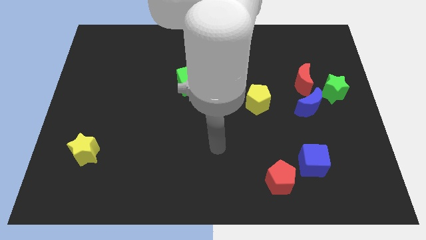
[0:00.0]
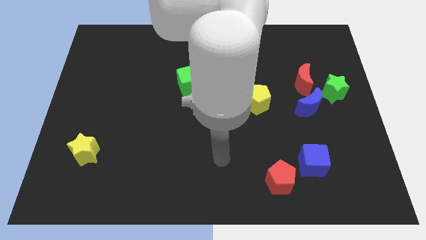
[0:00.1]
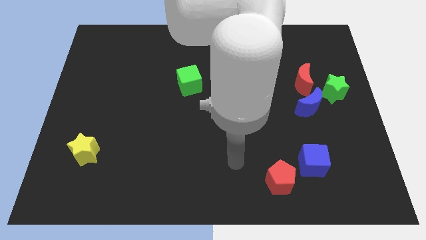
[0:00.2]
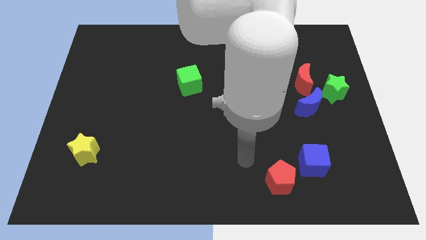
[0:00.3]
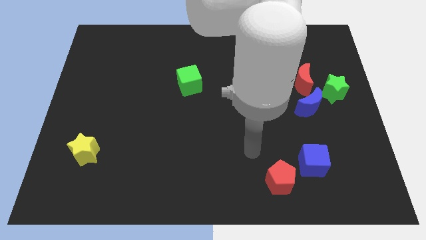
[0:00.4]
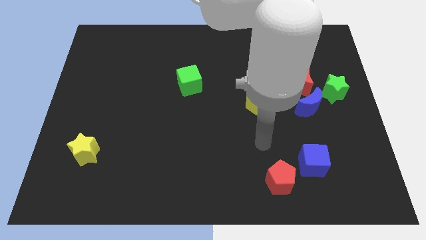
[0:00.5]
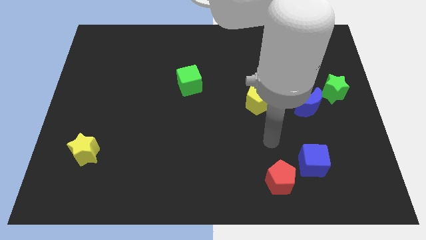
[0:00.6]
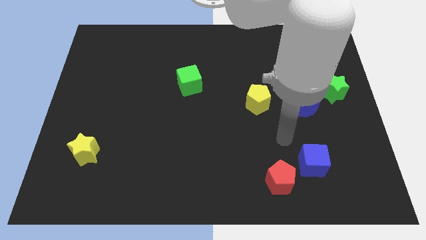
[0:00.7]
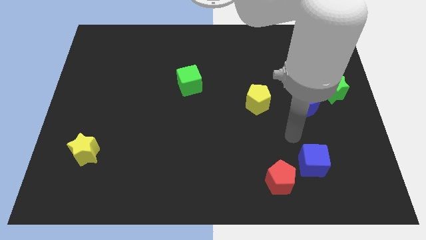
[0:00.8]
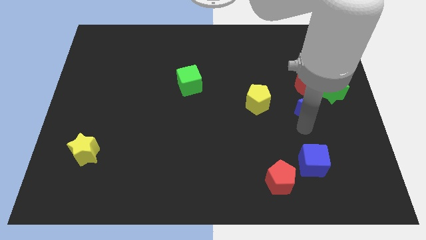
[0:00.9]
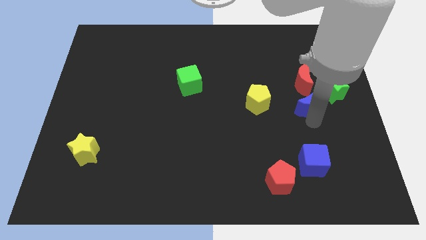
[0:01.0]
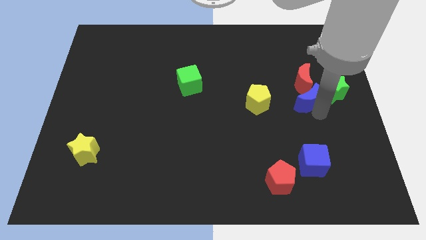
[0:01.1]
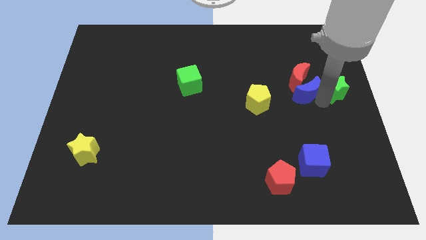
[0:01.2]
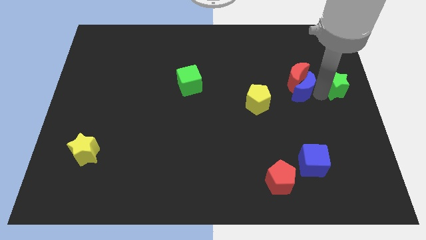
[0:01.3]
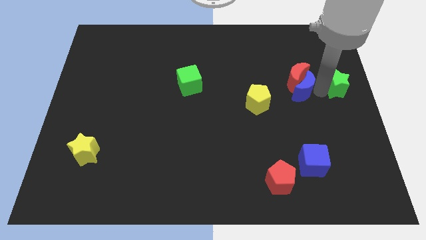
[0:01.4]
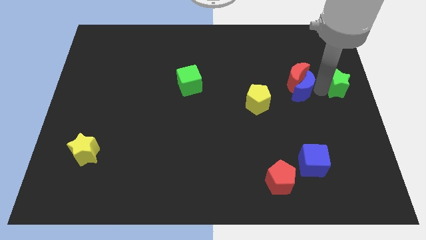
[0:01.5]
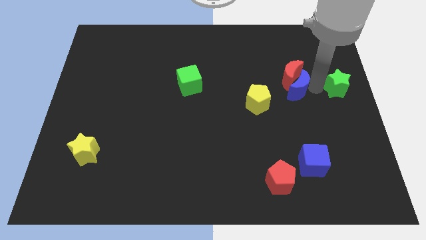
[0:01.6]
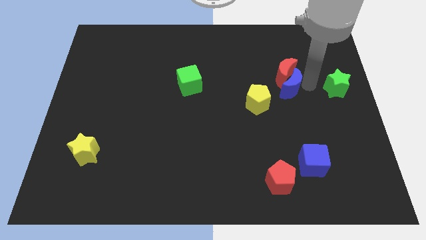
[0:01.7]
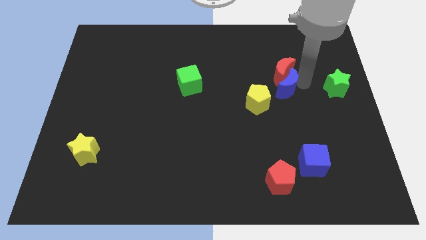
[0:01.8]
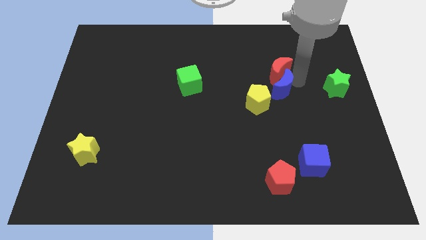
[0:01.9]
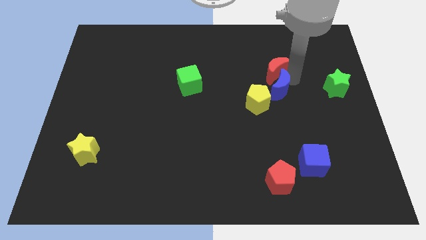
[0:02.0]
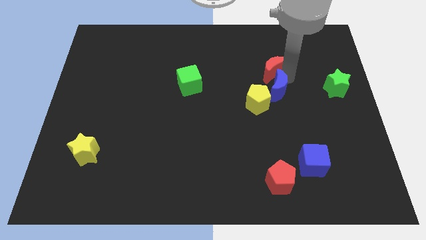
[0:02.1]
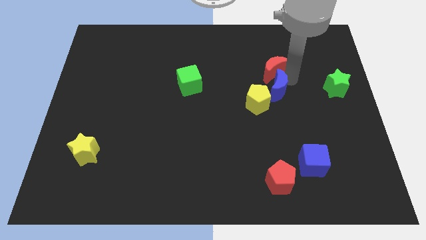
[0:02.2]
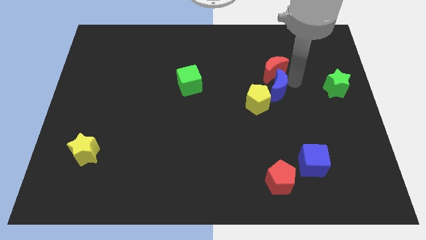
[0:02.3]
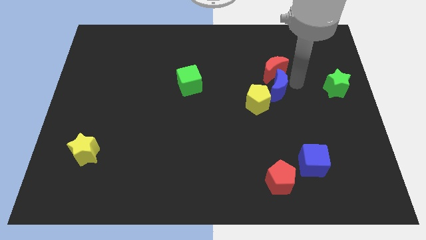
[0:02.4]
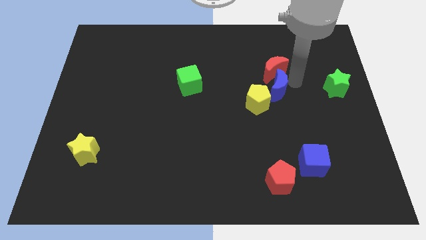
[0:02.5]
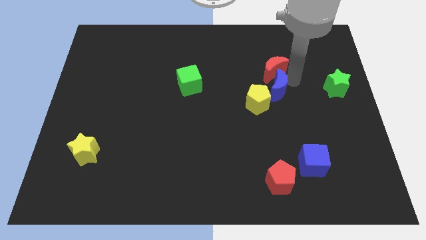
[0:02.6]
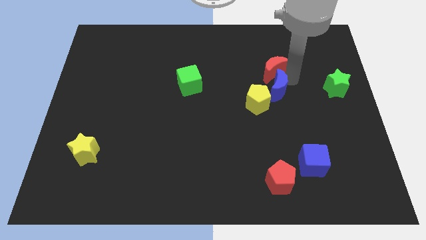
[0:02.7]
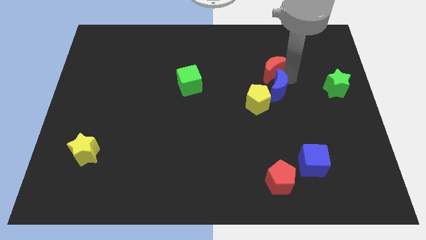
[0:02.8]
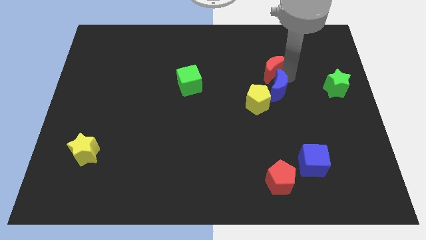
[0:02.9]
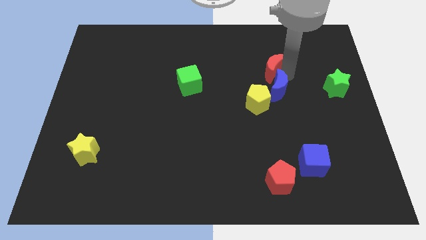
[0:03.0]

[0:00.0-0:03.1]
move the red moon away from the green star and blue moon

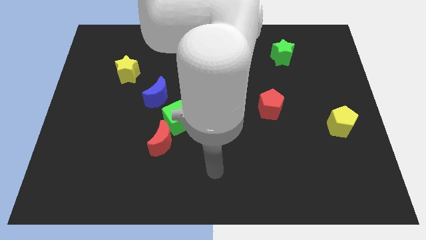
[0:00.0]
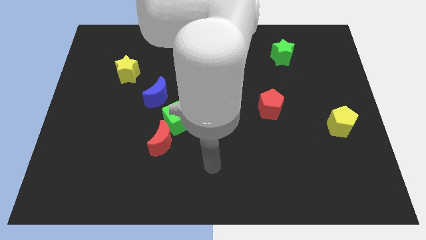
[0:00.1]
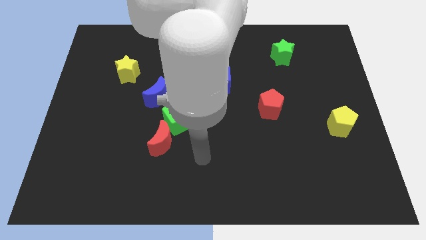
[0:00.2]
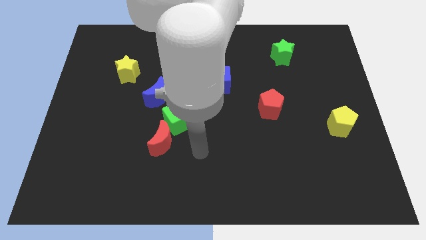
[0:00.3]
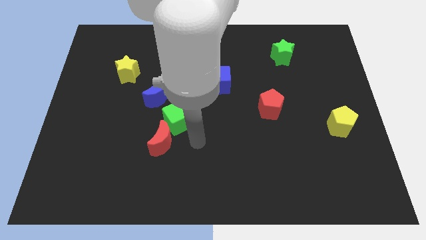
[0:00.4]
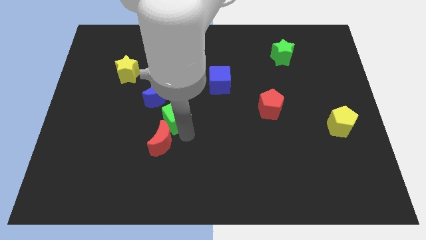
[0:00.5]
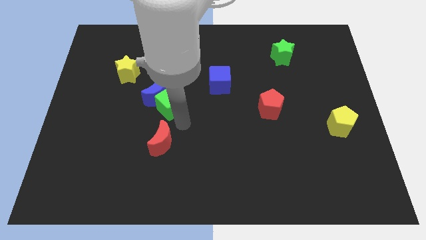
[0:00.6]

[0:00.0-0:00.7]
move the red moon away from the green cube

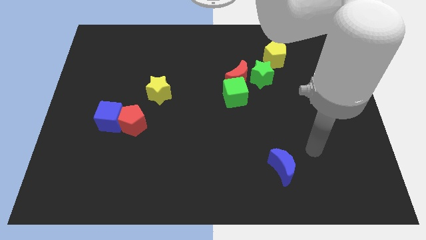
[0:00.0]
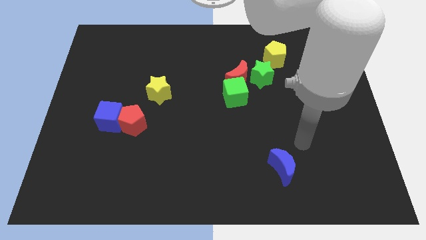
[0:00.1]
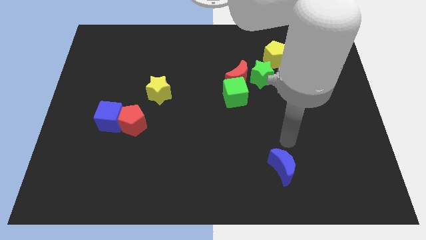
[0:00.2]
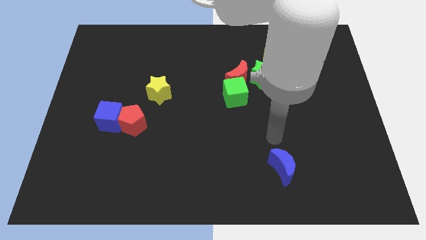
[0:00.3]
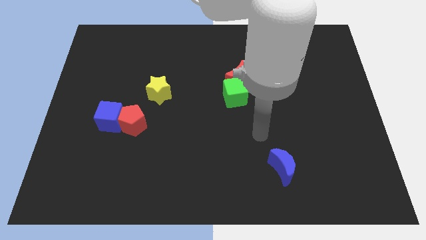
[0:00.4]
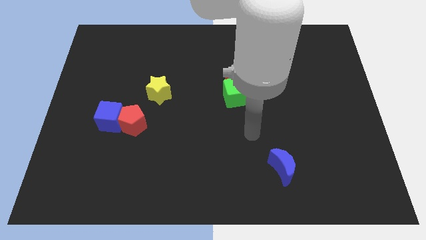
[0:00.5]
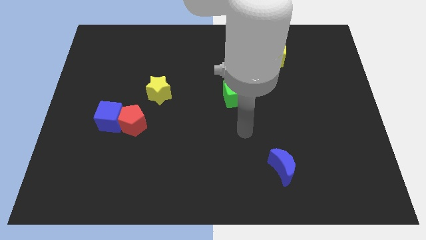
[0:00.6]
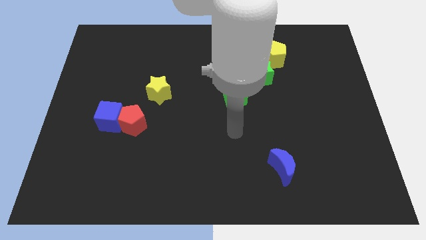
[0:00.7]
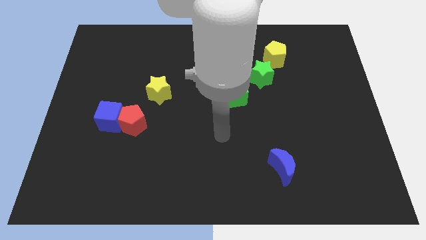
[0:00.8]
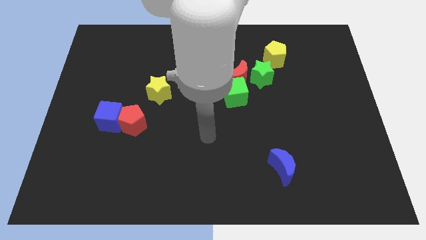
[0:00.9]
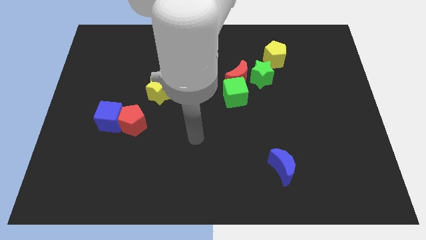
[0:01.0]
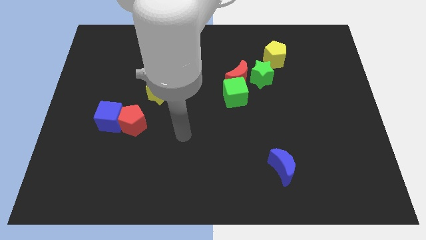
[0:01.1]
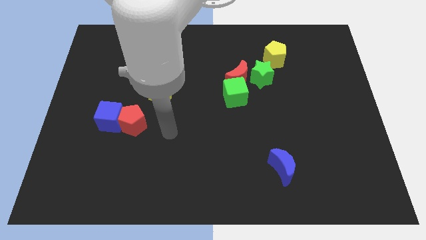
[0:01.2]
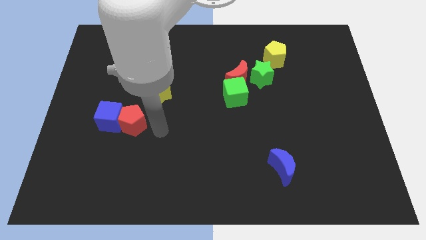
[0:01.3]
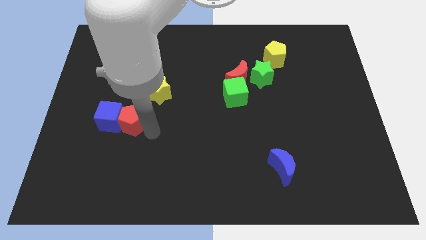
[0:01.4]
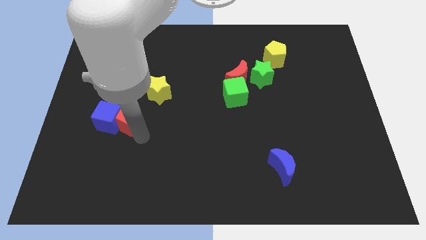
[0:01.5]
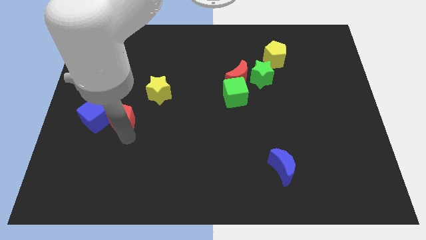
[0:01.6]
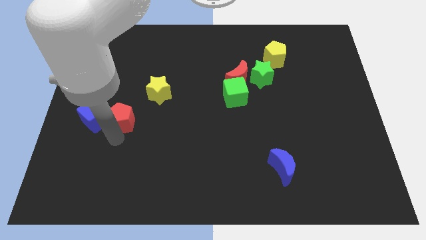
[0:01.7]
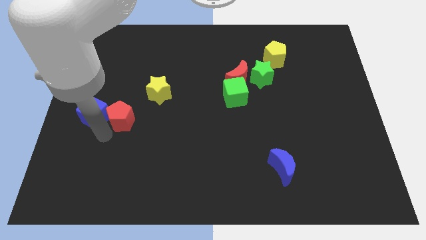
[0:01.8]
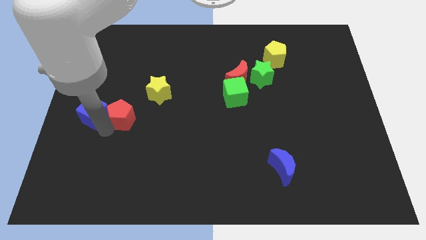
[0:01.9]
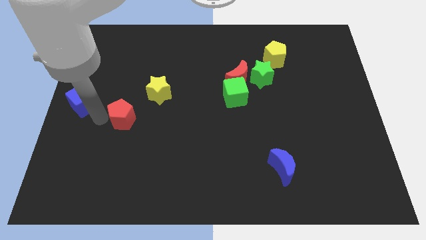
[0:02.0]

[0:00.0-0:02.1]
separate the red pentagon from the blue cube

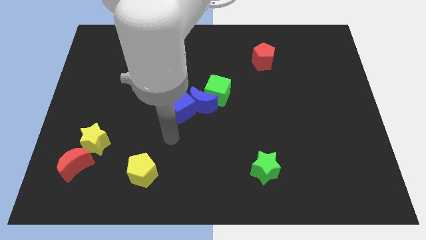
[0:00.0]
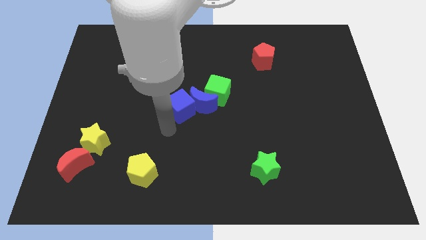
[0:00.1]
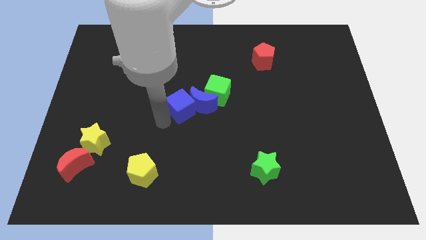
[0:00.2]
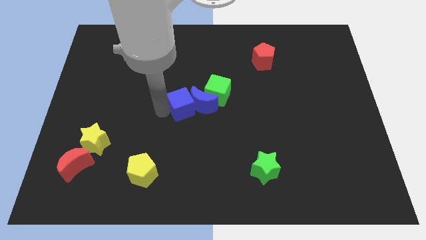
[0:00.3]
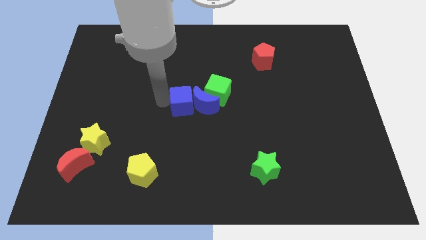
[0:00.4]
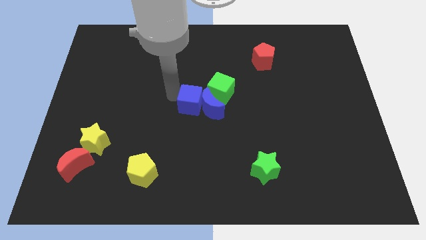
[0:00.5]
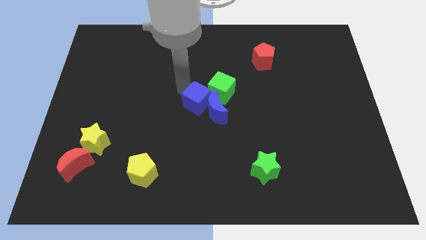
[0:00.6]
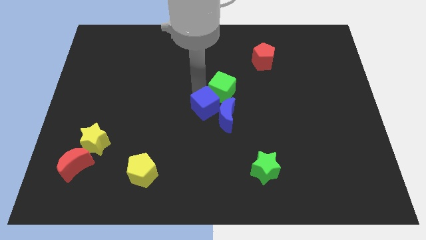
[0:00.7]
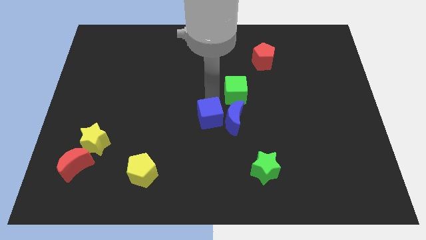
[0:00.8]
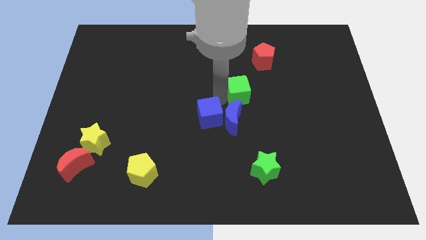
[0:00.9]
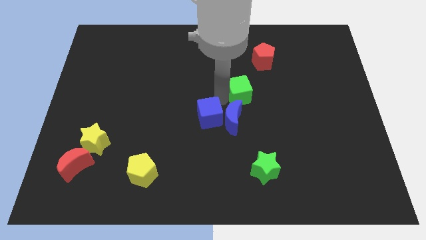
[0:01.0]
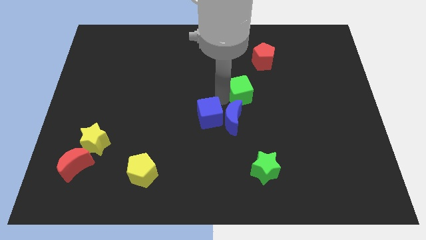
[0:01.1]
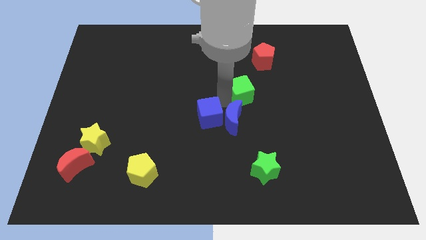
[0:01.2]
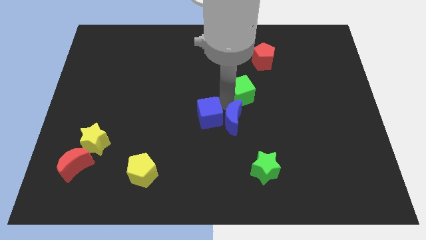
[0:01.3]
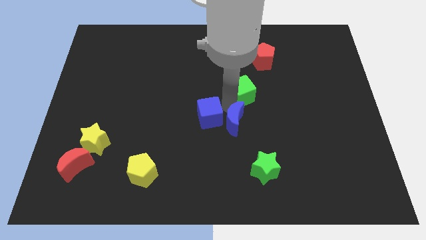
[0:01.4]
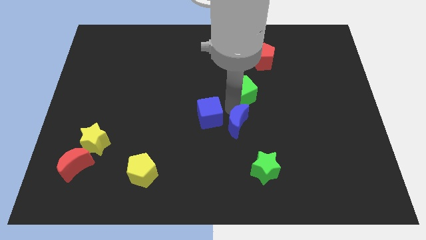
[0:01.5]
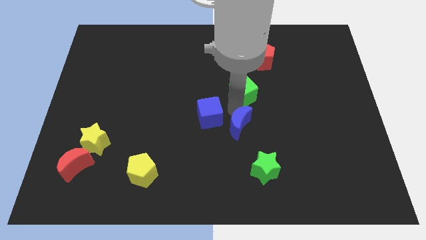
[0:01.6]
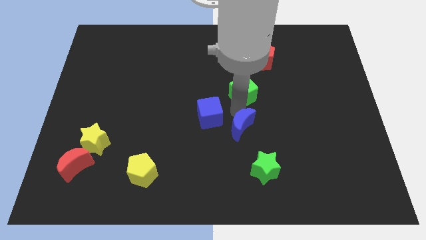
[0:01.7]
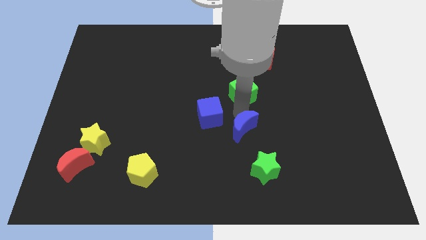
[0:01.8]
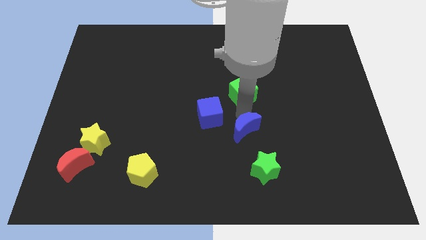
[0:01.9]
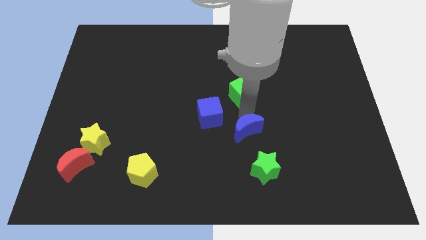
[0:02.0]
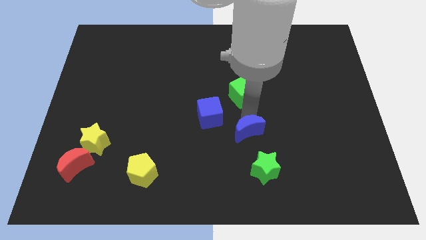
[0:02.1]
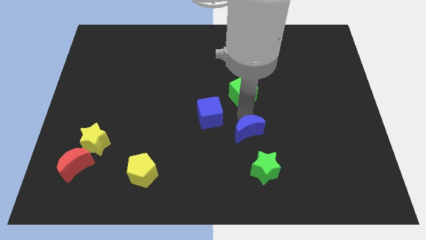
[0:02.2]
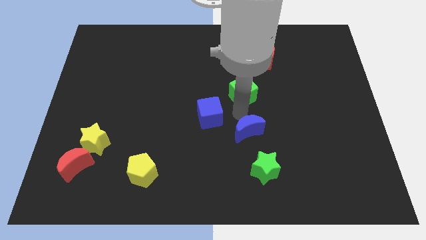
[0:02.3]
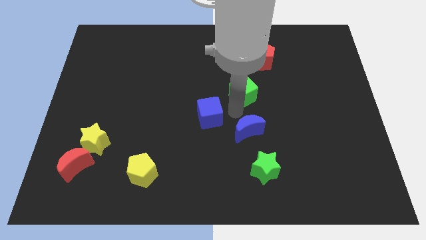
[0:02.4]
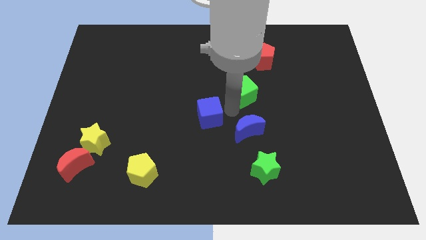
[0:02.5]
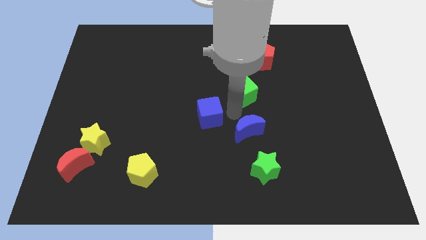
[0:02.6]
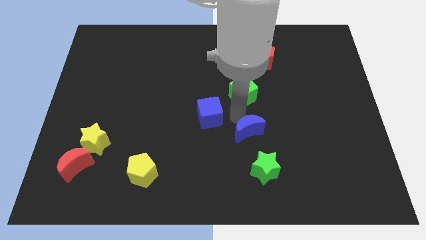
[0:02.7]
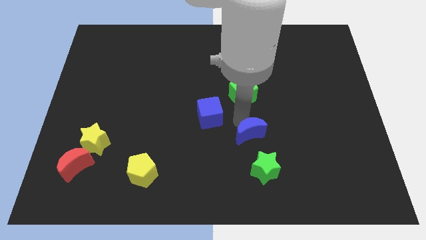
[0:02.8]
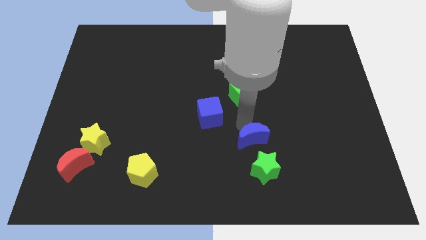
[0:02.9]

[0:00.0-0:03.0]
move the blue moon away from the green cube and blue cube

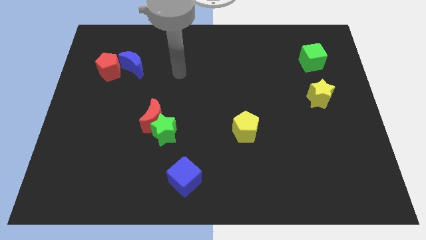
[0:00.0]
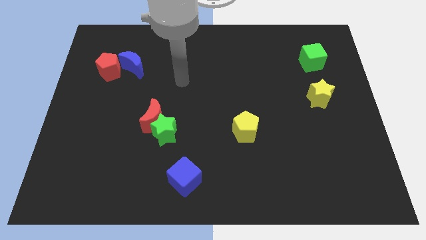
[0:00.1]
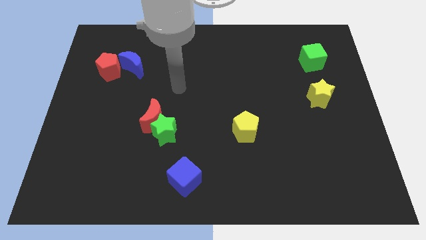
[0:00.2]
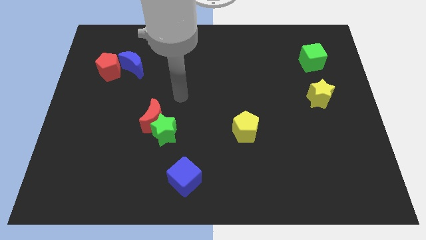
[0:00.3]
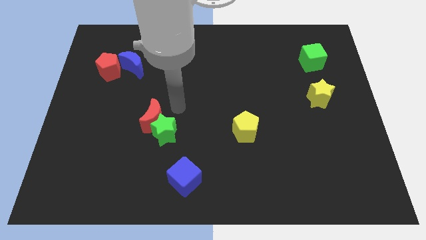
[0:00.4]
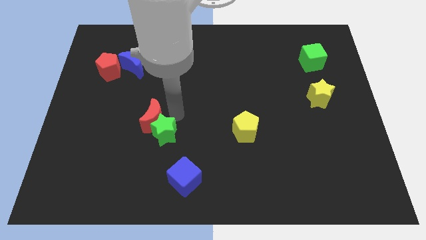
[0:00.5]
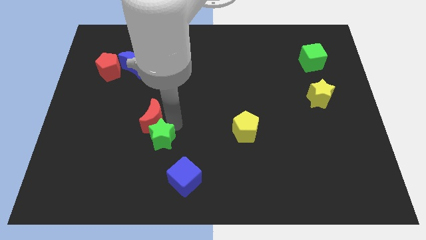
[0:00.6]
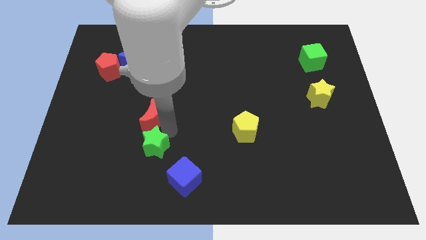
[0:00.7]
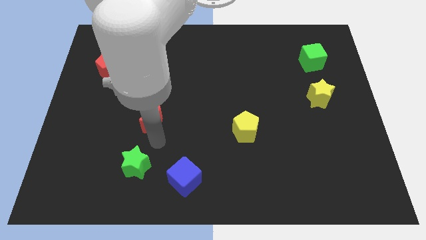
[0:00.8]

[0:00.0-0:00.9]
separate the red moon from the green star
